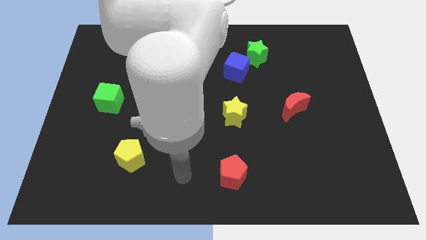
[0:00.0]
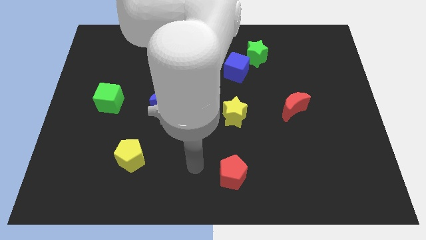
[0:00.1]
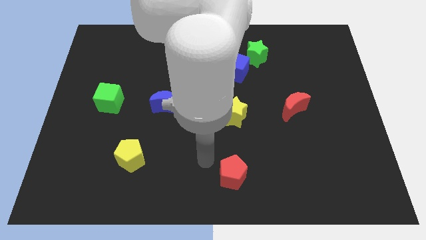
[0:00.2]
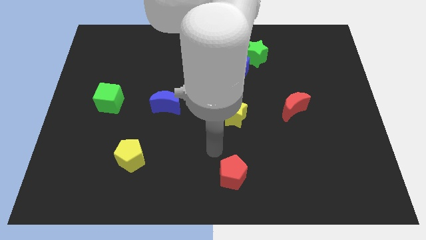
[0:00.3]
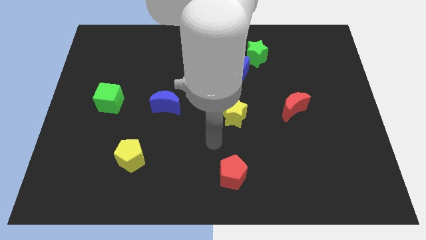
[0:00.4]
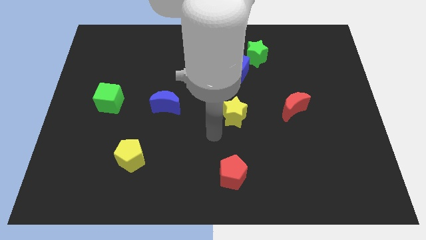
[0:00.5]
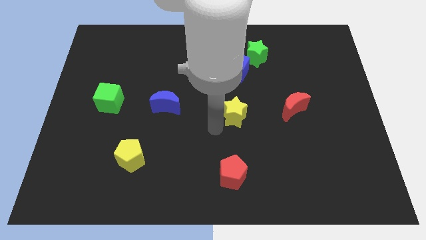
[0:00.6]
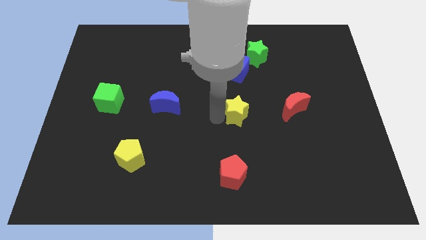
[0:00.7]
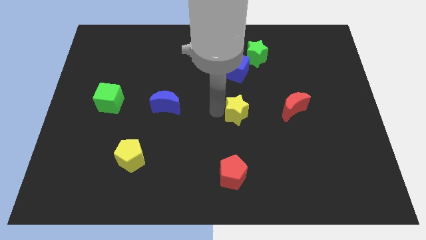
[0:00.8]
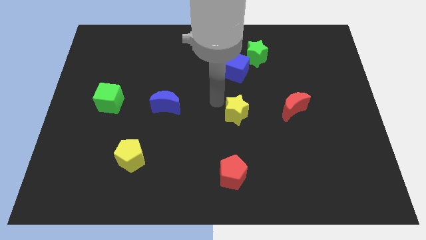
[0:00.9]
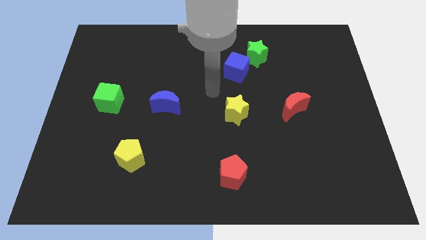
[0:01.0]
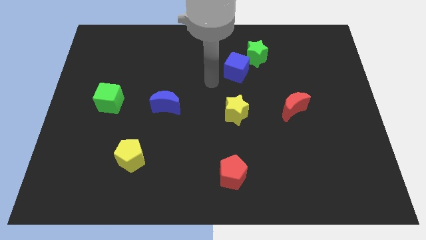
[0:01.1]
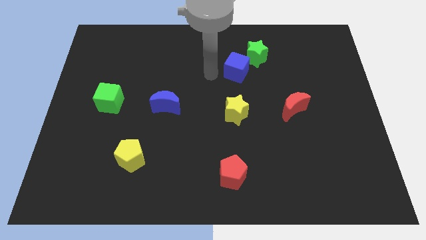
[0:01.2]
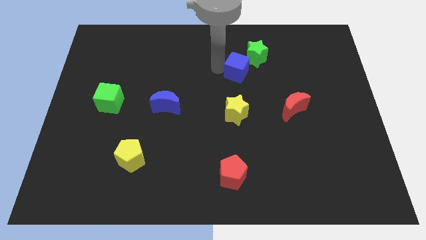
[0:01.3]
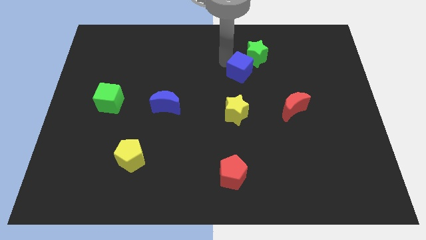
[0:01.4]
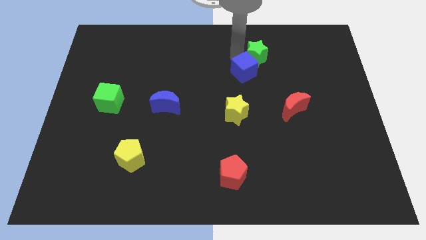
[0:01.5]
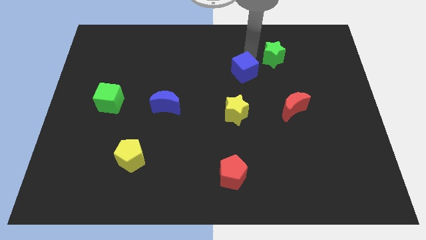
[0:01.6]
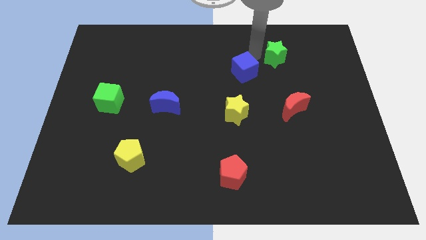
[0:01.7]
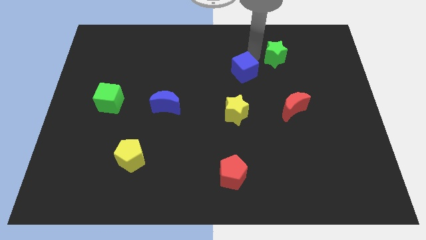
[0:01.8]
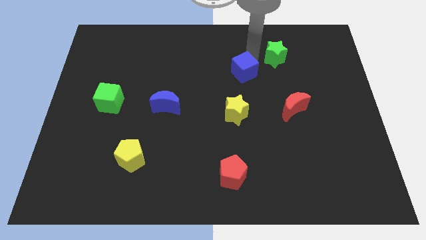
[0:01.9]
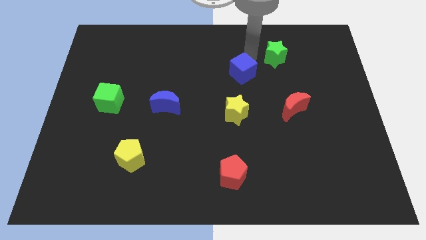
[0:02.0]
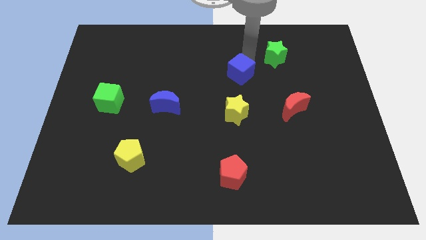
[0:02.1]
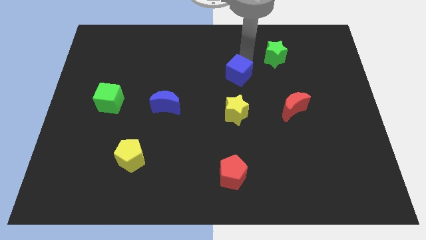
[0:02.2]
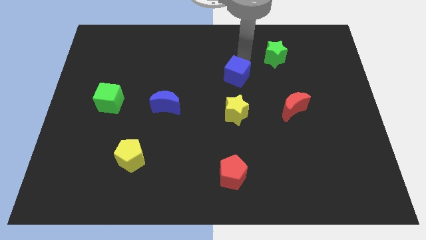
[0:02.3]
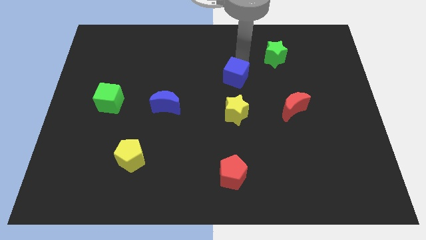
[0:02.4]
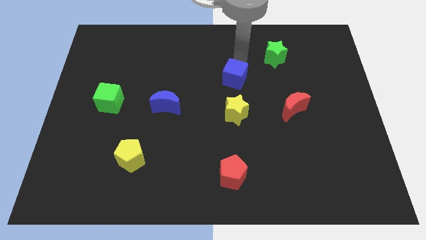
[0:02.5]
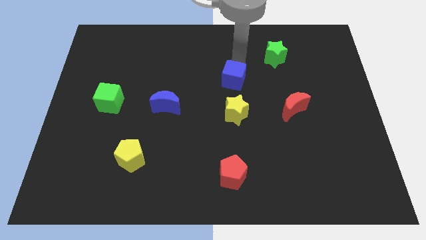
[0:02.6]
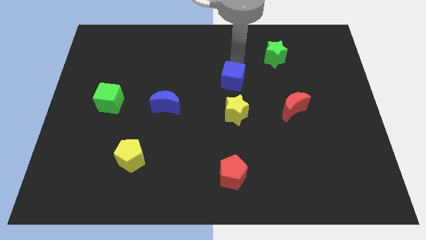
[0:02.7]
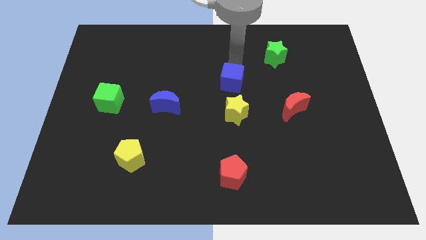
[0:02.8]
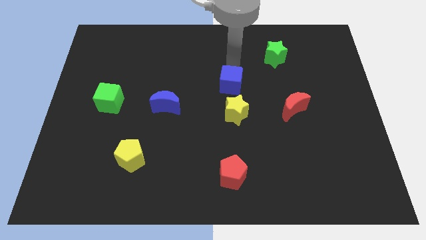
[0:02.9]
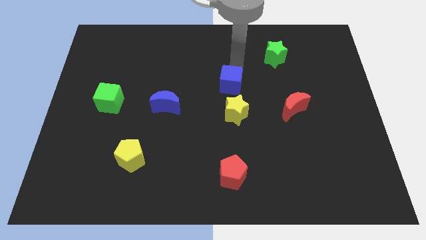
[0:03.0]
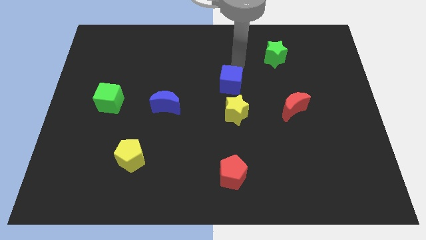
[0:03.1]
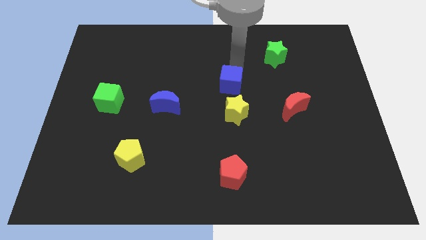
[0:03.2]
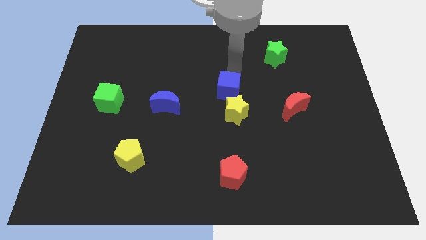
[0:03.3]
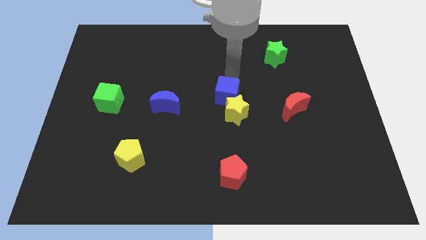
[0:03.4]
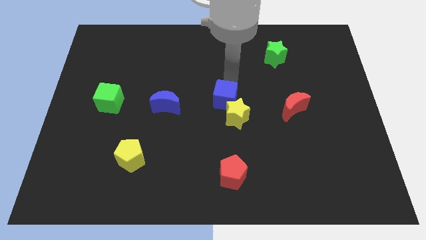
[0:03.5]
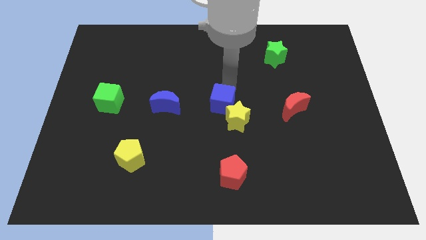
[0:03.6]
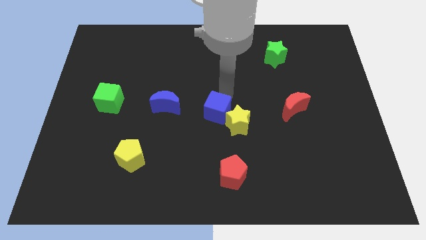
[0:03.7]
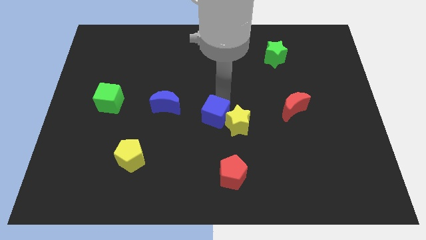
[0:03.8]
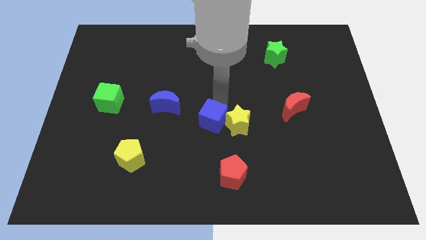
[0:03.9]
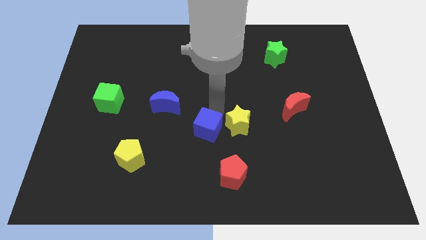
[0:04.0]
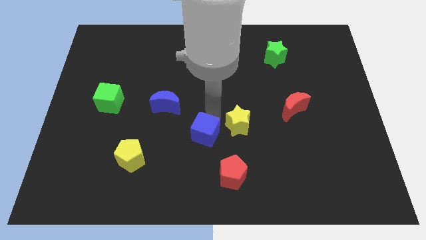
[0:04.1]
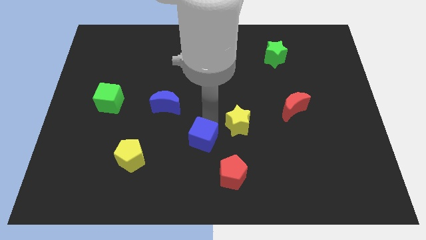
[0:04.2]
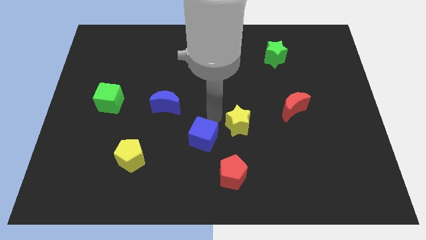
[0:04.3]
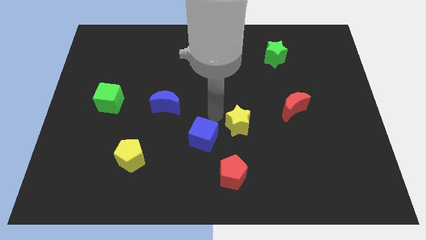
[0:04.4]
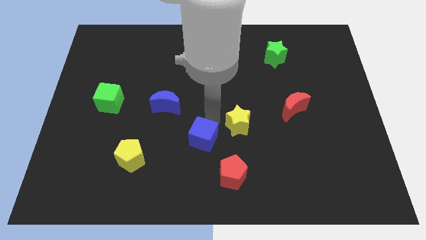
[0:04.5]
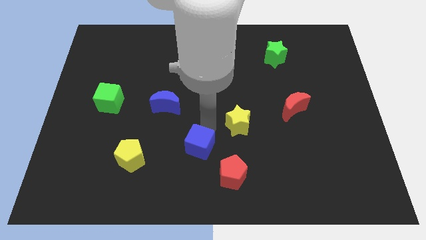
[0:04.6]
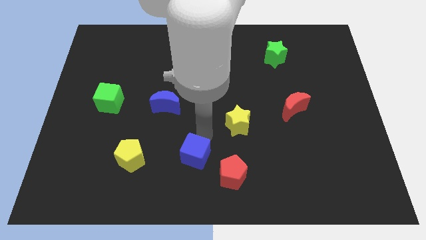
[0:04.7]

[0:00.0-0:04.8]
put the blue cube left of the red pentagon

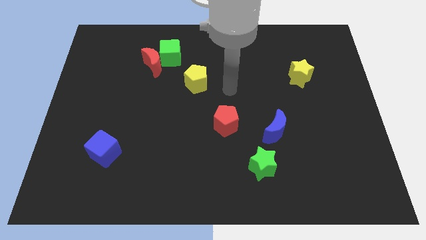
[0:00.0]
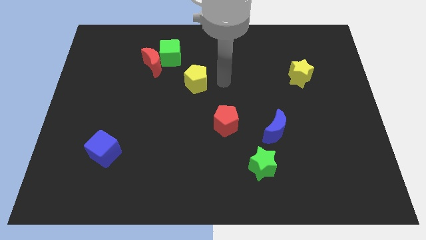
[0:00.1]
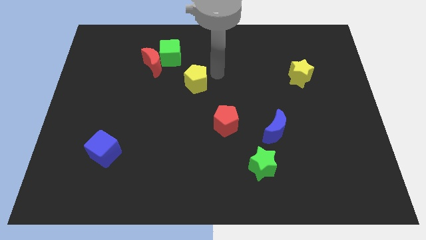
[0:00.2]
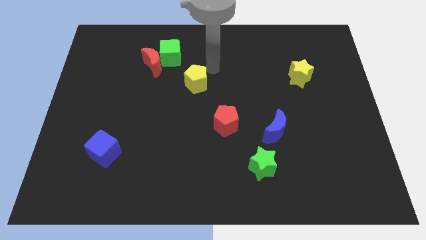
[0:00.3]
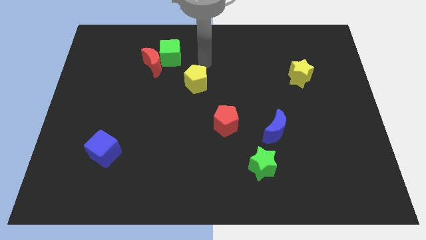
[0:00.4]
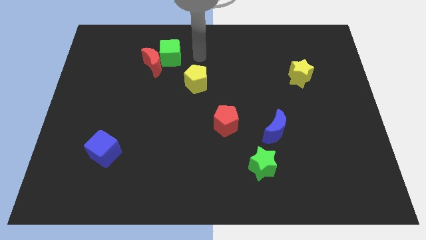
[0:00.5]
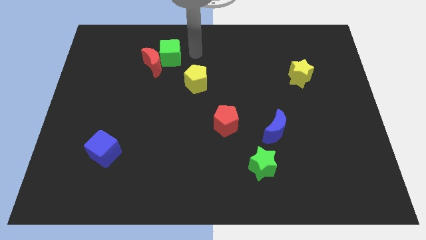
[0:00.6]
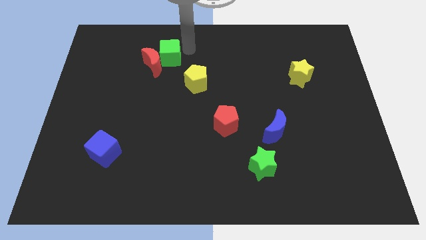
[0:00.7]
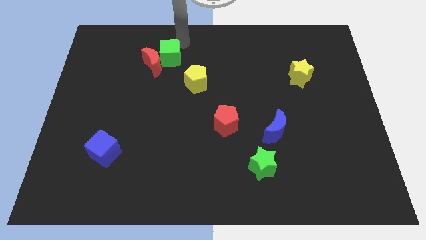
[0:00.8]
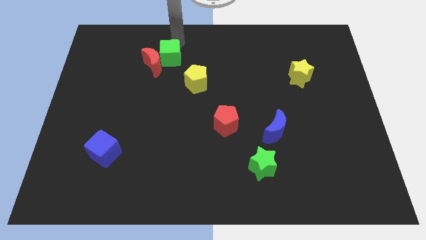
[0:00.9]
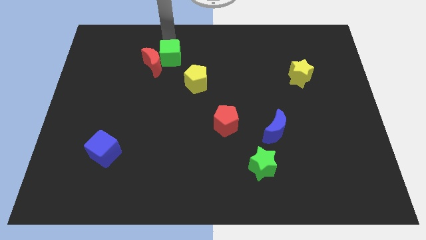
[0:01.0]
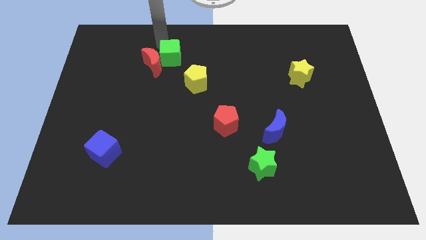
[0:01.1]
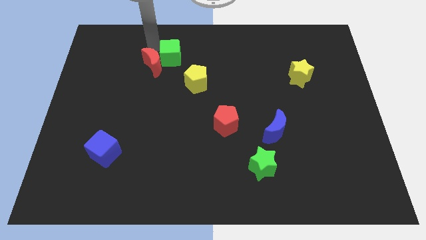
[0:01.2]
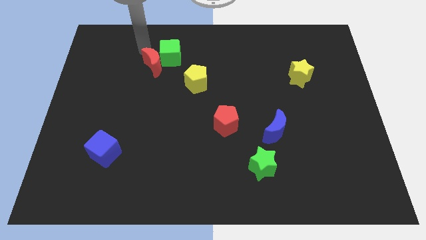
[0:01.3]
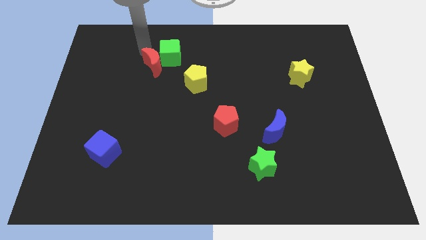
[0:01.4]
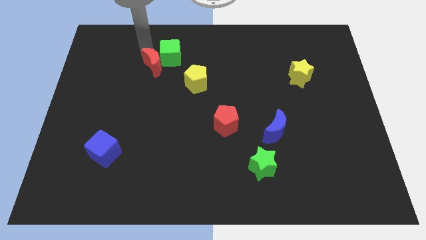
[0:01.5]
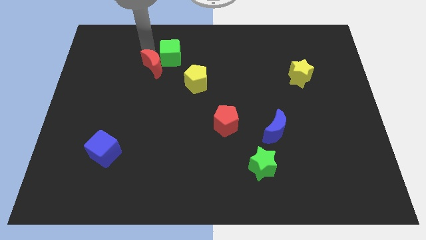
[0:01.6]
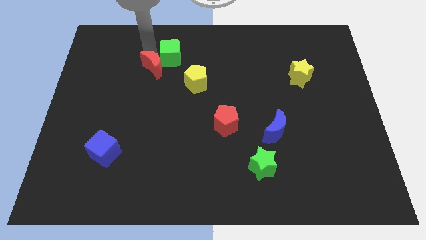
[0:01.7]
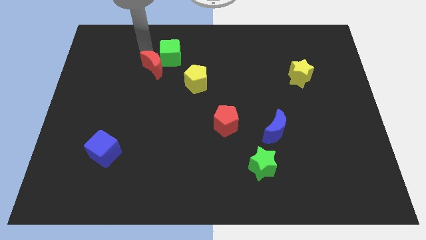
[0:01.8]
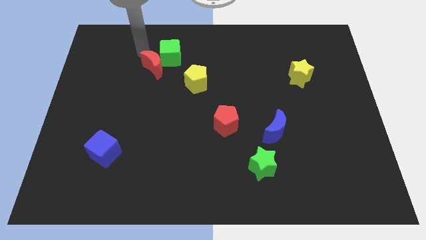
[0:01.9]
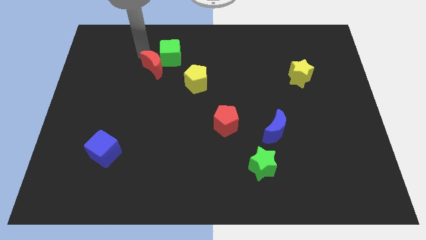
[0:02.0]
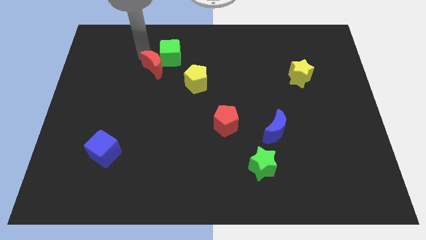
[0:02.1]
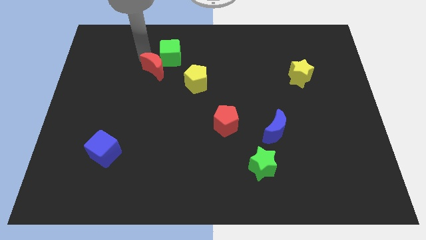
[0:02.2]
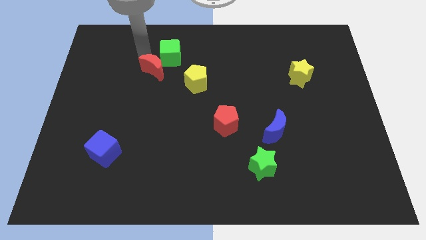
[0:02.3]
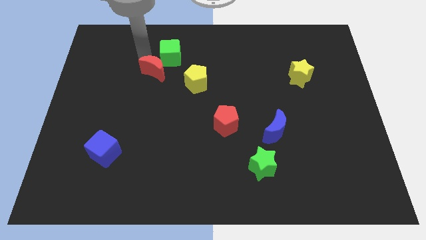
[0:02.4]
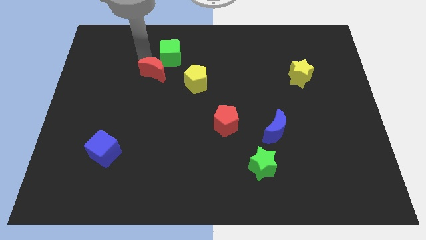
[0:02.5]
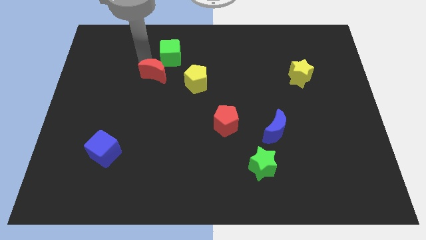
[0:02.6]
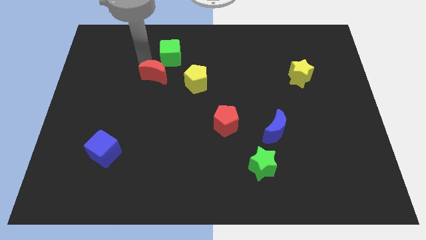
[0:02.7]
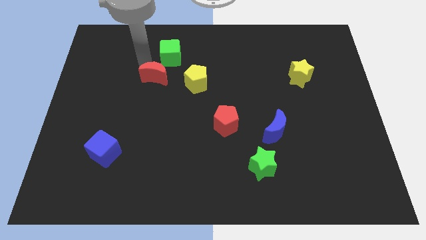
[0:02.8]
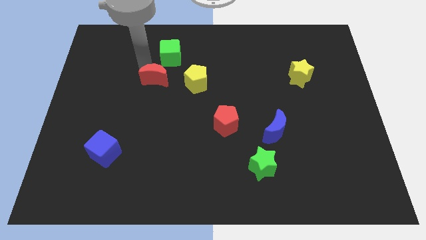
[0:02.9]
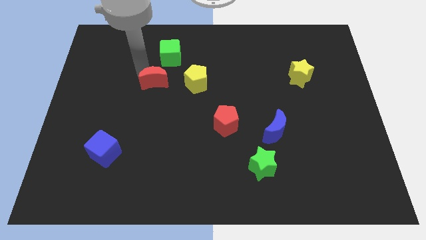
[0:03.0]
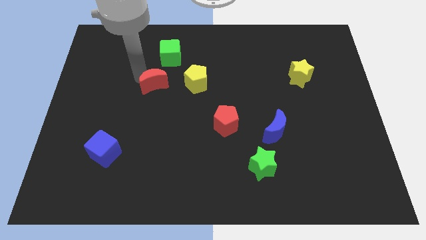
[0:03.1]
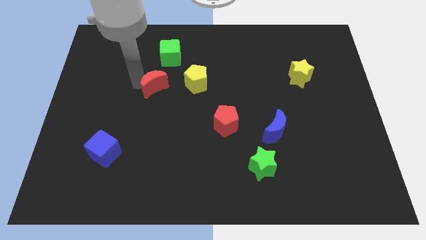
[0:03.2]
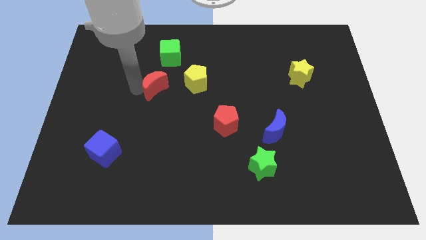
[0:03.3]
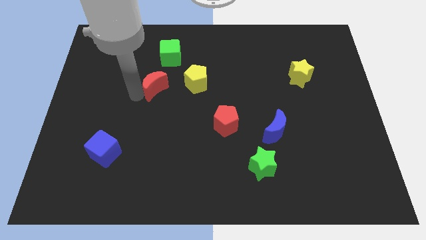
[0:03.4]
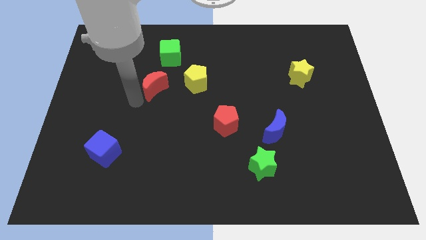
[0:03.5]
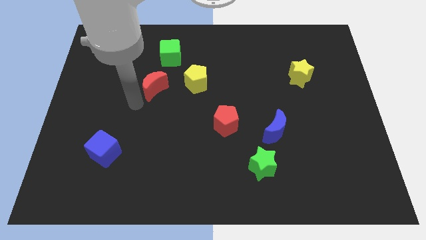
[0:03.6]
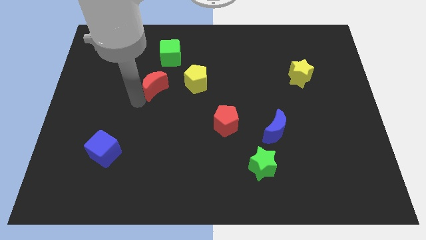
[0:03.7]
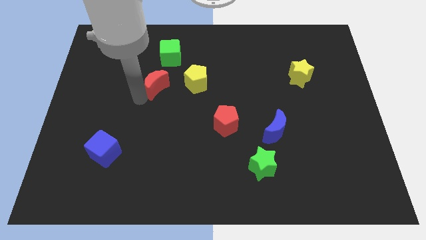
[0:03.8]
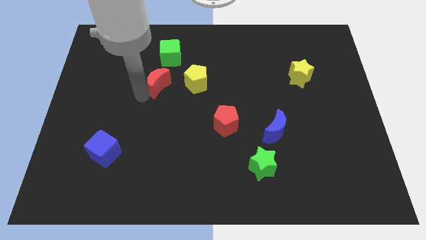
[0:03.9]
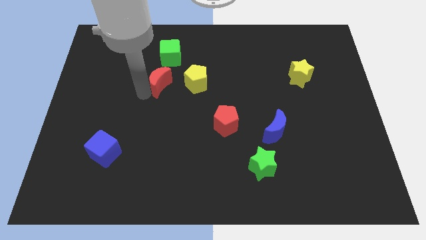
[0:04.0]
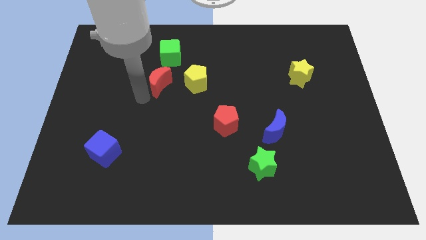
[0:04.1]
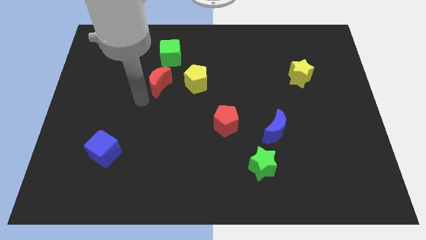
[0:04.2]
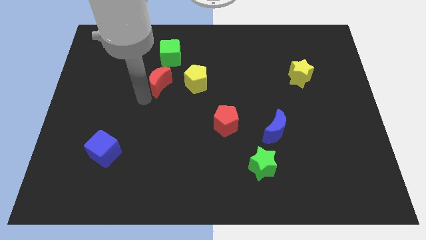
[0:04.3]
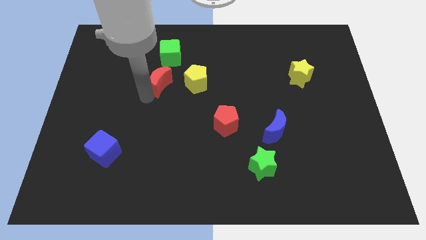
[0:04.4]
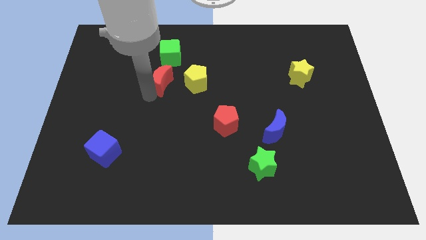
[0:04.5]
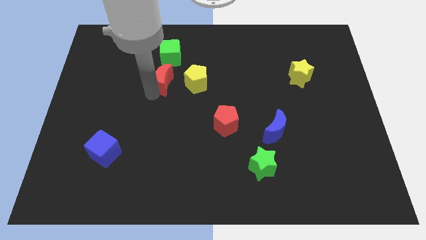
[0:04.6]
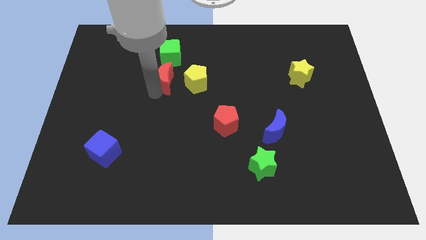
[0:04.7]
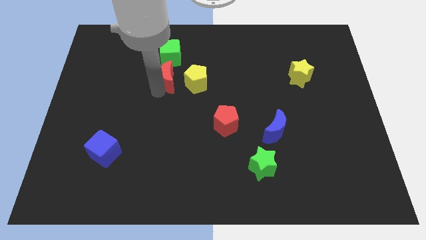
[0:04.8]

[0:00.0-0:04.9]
slide the red moon to the top left of the yellow pentagon
